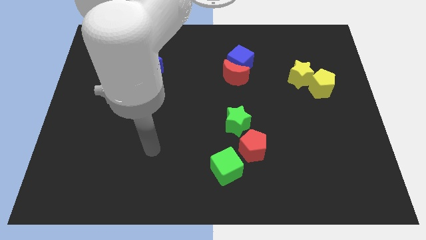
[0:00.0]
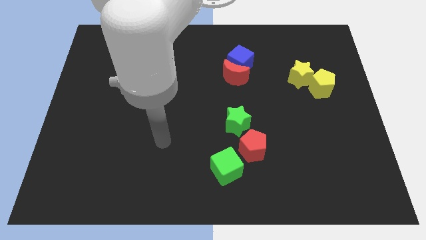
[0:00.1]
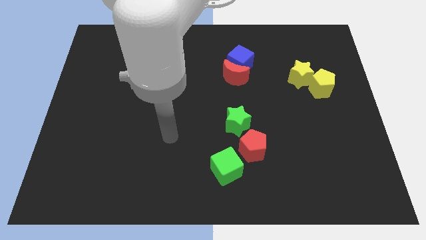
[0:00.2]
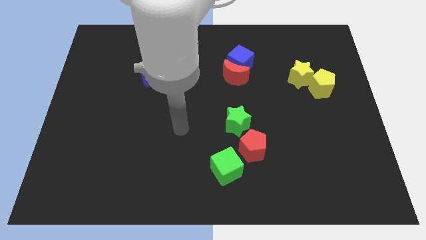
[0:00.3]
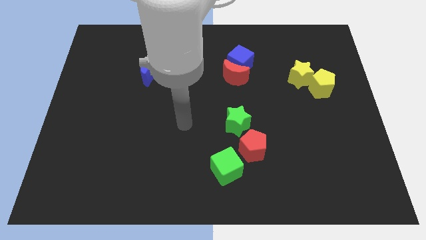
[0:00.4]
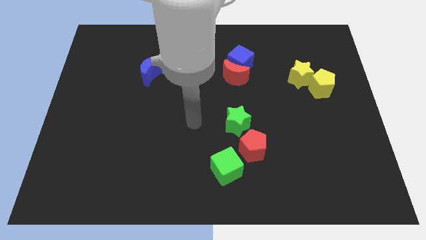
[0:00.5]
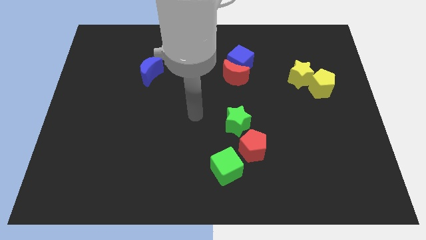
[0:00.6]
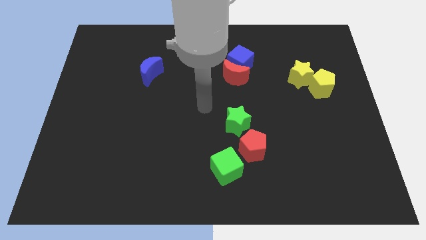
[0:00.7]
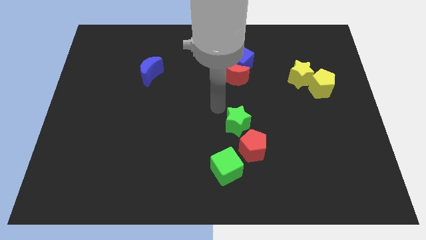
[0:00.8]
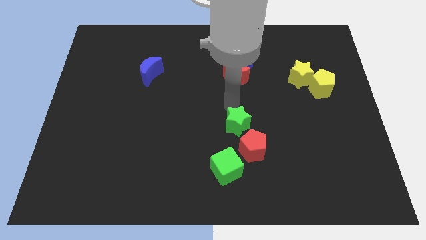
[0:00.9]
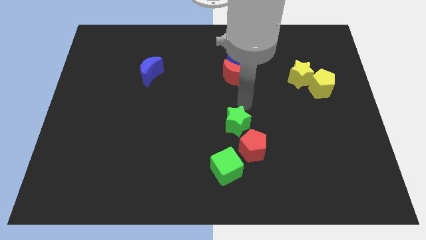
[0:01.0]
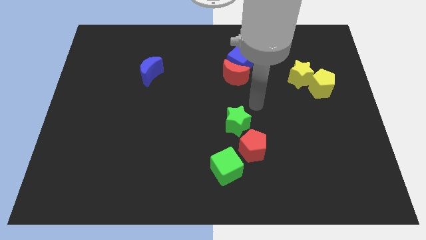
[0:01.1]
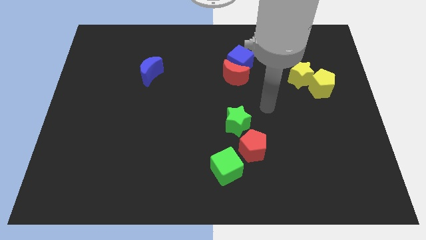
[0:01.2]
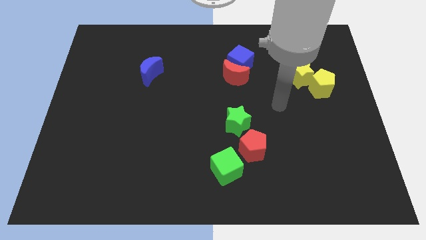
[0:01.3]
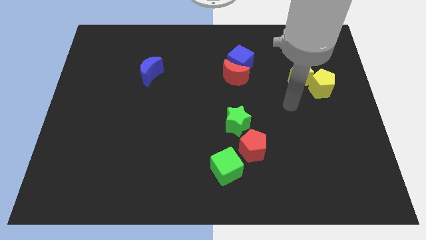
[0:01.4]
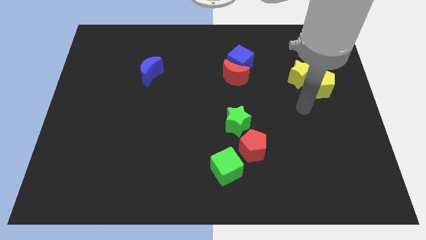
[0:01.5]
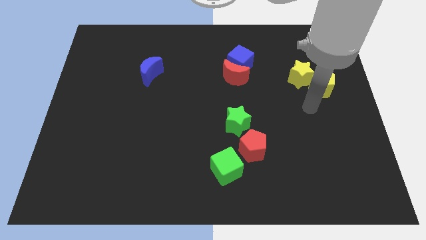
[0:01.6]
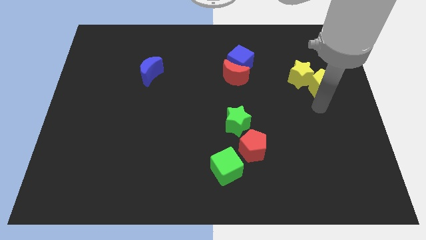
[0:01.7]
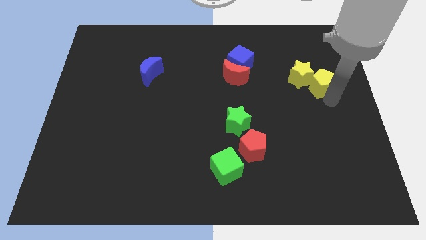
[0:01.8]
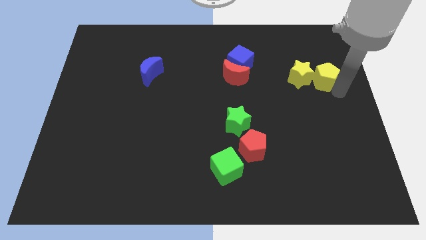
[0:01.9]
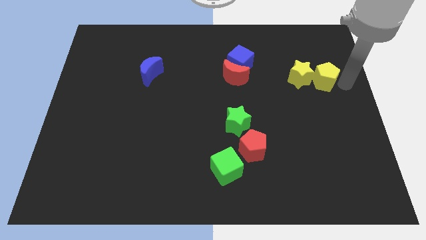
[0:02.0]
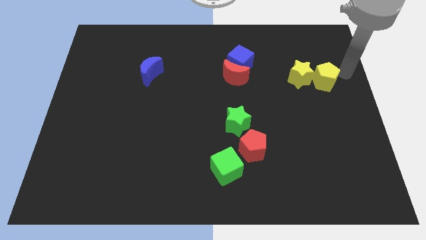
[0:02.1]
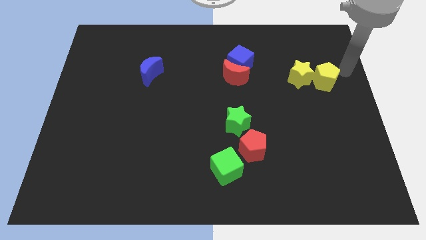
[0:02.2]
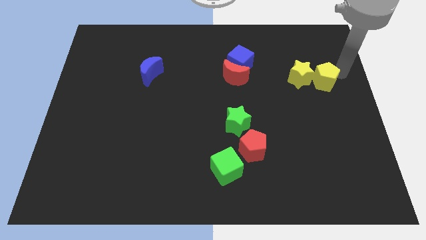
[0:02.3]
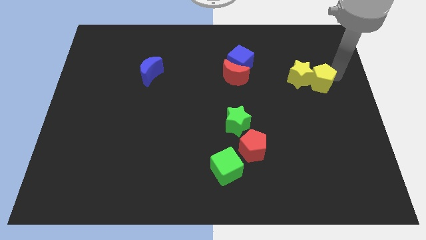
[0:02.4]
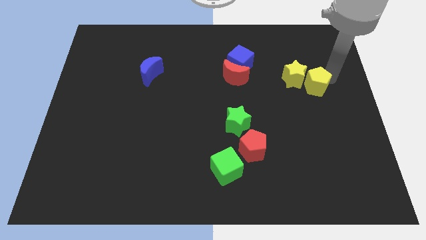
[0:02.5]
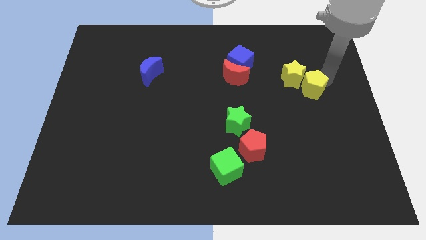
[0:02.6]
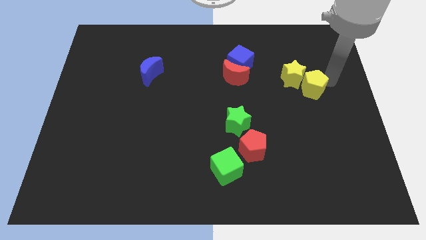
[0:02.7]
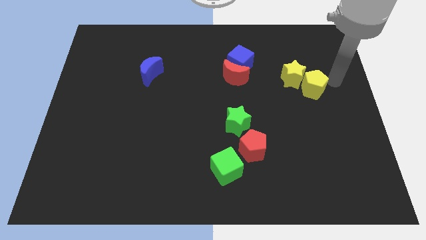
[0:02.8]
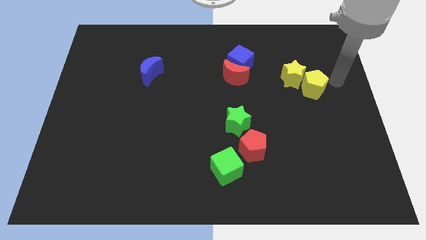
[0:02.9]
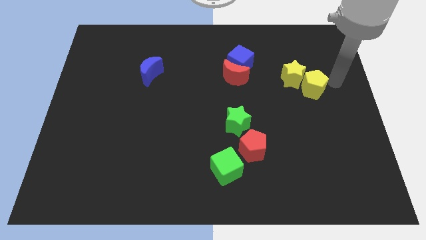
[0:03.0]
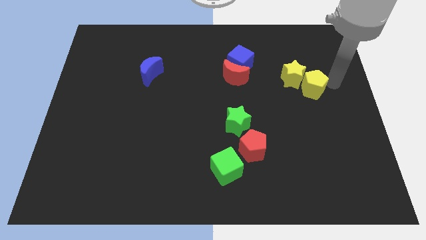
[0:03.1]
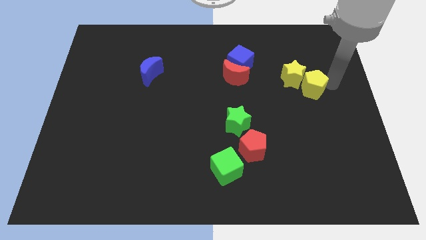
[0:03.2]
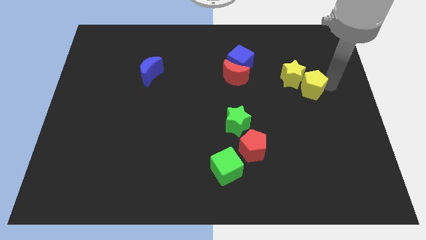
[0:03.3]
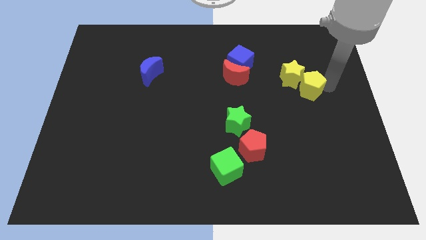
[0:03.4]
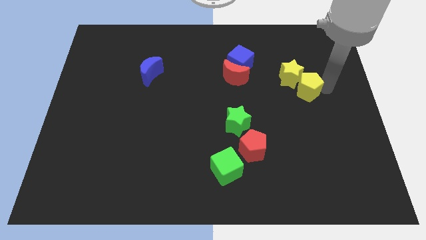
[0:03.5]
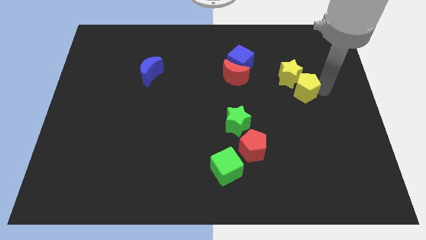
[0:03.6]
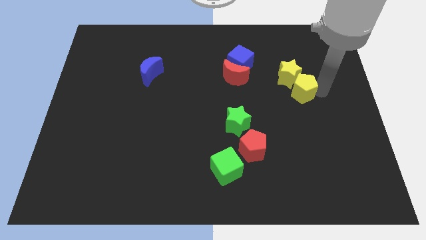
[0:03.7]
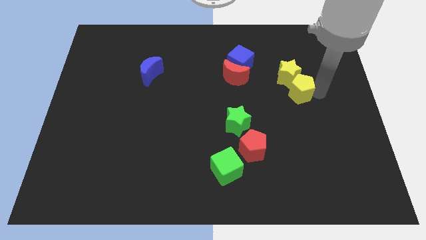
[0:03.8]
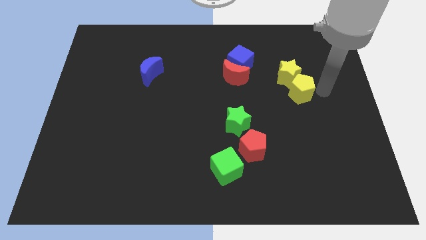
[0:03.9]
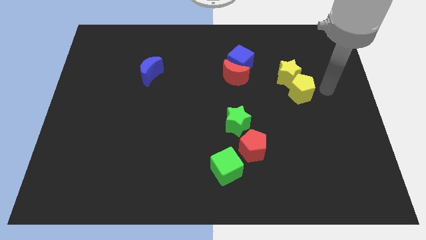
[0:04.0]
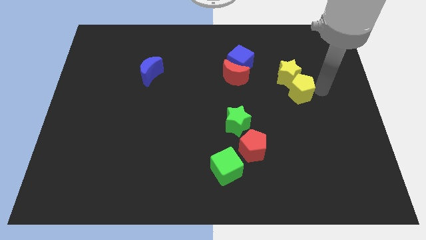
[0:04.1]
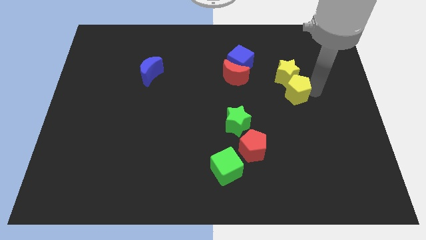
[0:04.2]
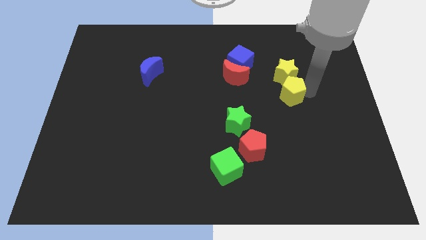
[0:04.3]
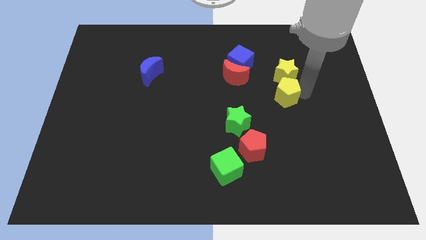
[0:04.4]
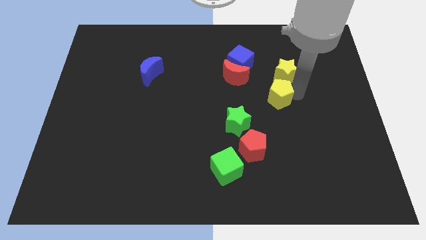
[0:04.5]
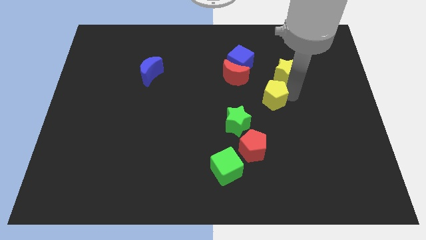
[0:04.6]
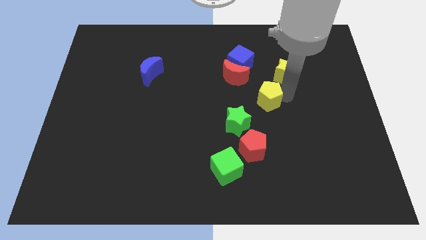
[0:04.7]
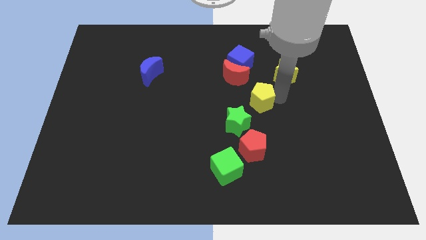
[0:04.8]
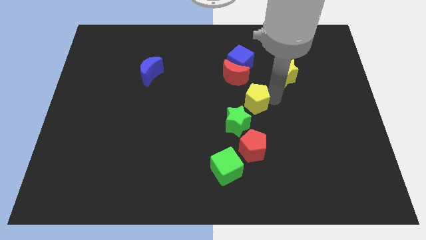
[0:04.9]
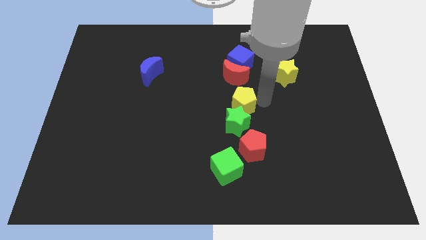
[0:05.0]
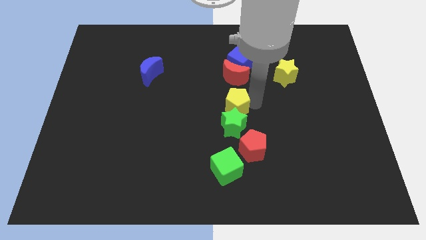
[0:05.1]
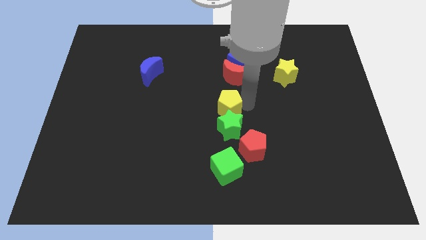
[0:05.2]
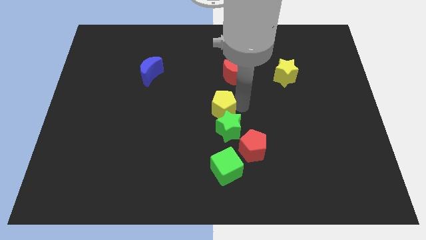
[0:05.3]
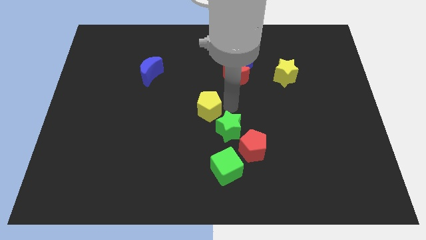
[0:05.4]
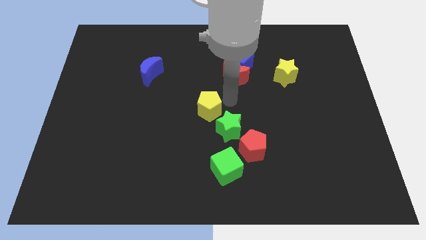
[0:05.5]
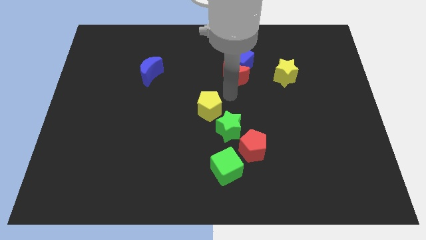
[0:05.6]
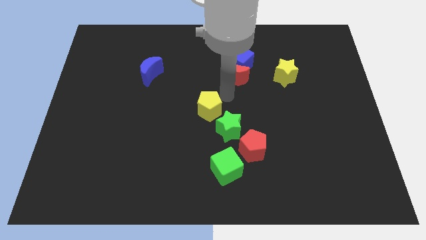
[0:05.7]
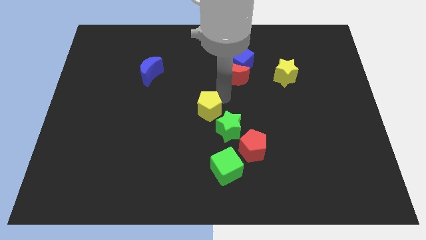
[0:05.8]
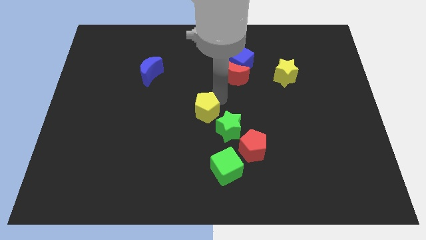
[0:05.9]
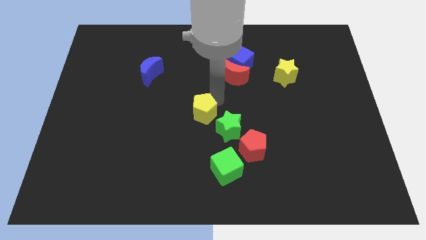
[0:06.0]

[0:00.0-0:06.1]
slide the yellow pentagon left of the green star

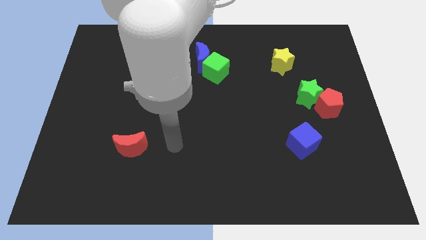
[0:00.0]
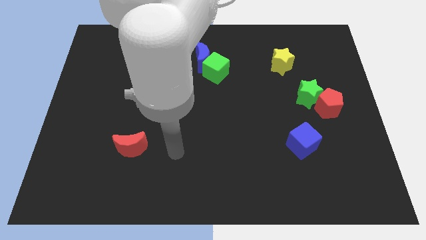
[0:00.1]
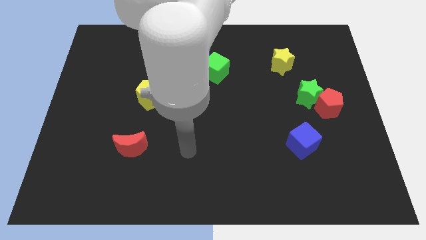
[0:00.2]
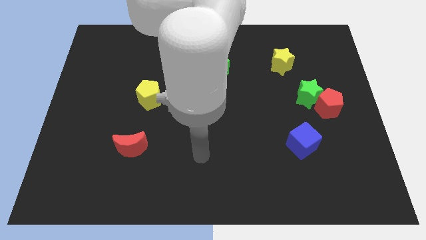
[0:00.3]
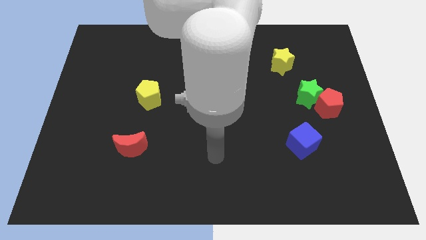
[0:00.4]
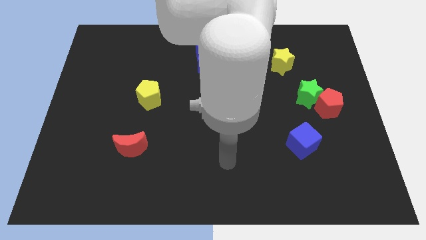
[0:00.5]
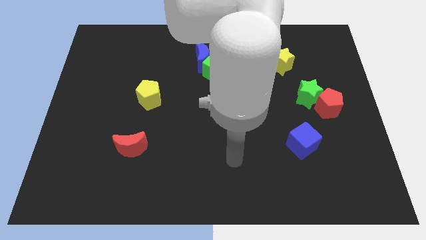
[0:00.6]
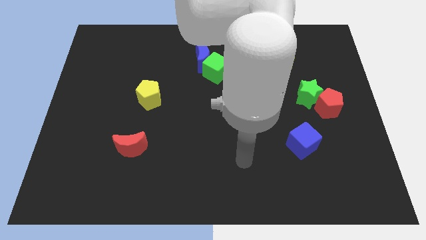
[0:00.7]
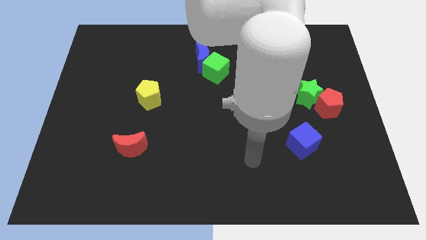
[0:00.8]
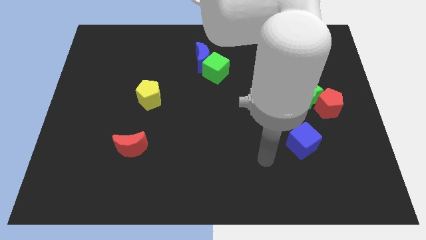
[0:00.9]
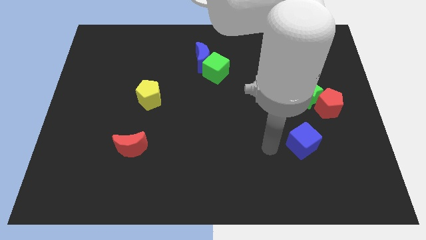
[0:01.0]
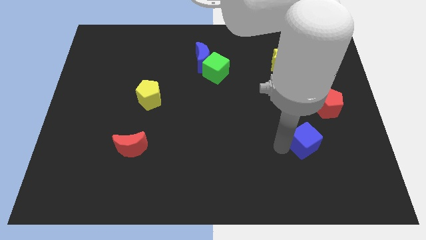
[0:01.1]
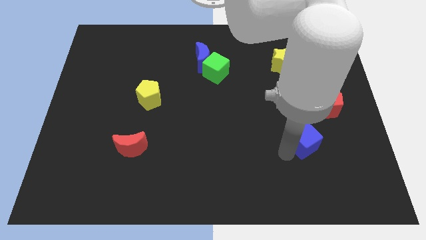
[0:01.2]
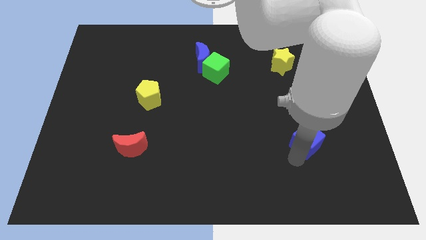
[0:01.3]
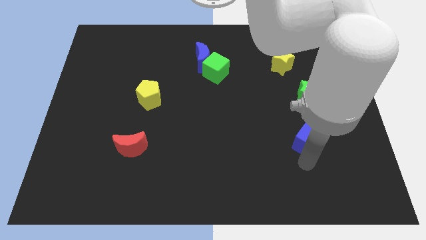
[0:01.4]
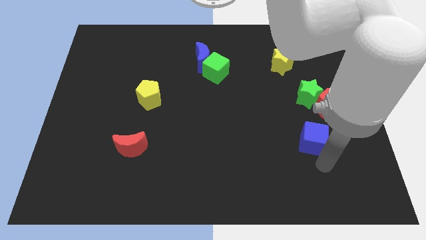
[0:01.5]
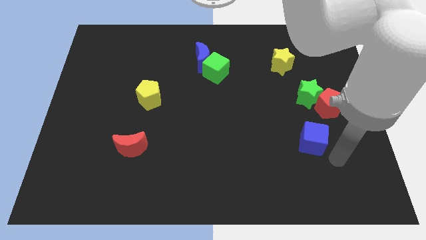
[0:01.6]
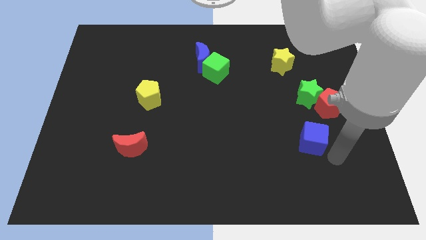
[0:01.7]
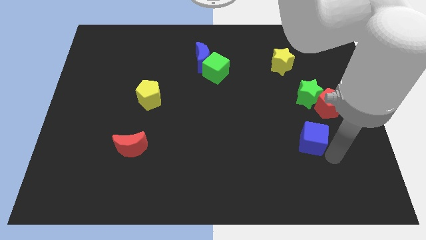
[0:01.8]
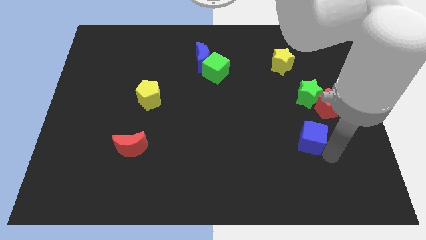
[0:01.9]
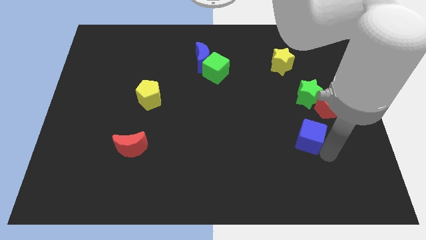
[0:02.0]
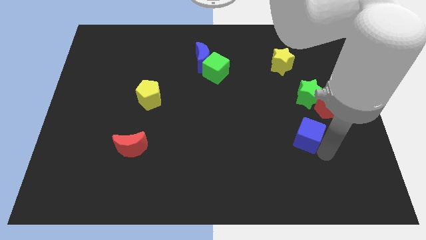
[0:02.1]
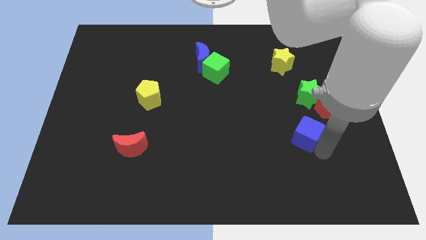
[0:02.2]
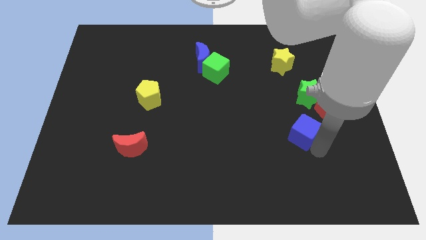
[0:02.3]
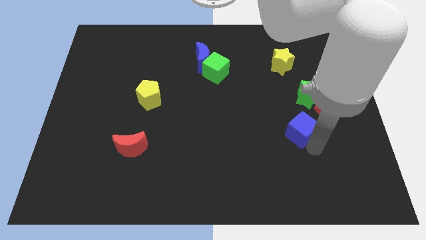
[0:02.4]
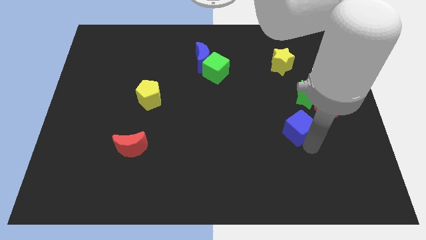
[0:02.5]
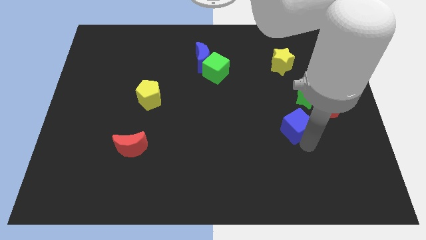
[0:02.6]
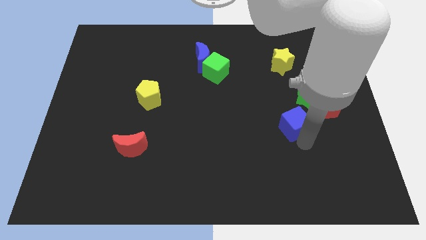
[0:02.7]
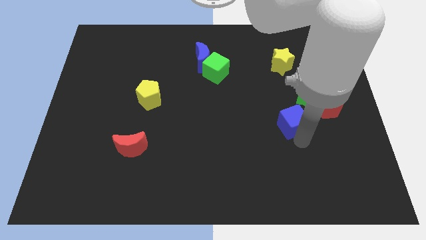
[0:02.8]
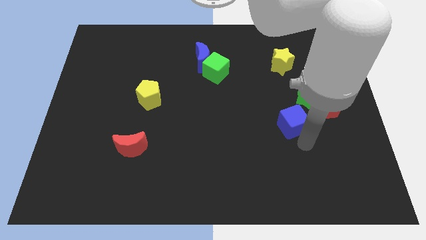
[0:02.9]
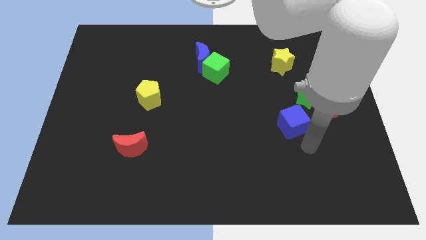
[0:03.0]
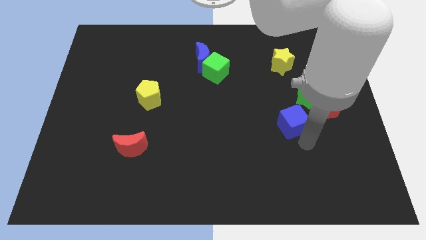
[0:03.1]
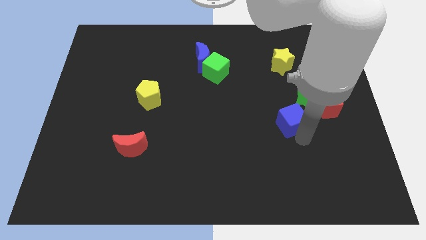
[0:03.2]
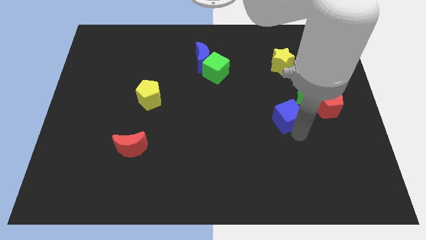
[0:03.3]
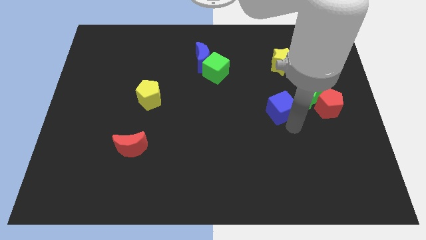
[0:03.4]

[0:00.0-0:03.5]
slide the blue cube just left of the green star
